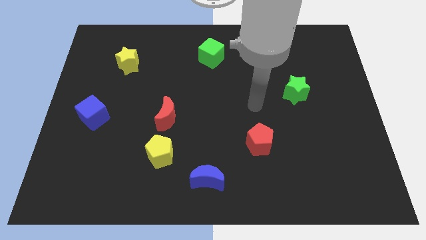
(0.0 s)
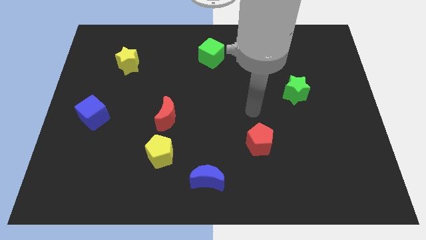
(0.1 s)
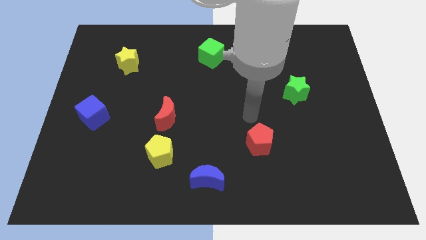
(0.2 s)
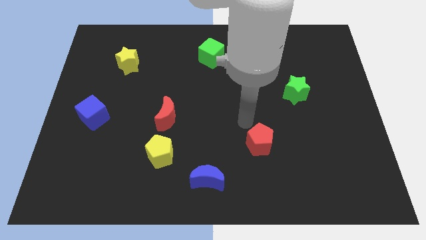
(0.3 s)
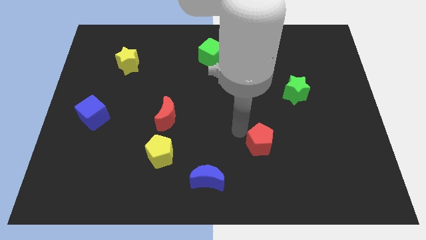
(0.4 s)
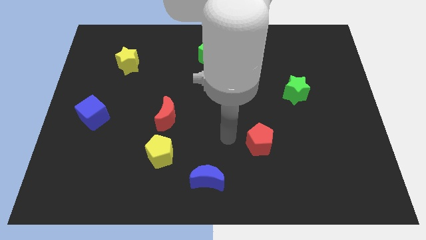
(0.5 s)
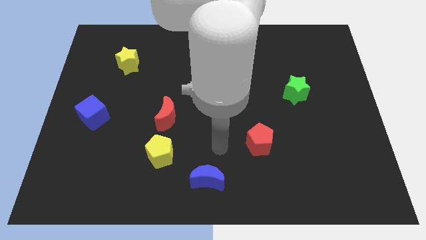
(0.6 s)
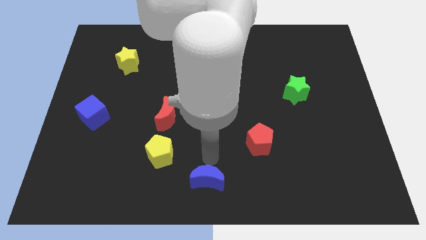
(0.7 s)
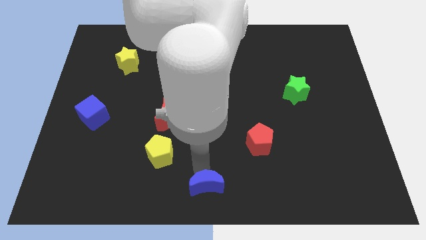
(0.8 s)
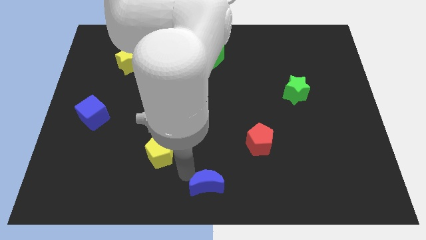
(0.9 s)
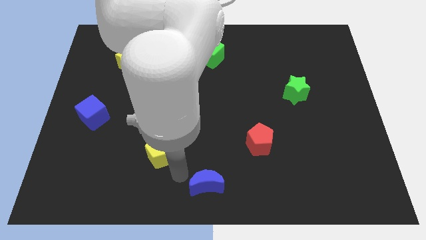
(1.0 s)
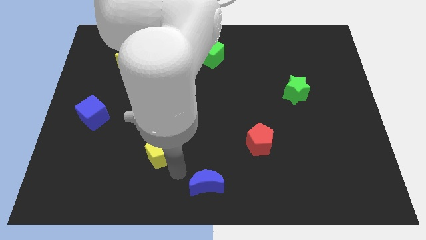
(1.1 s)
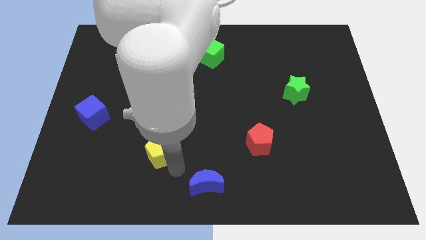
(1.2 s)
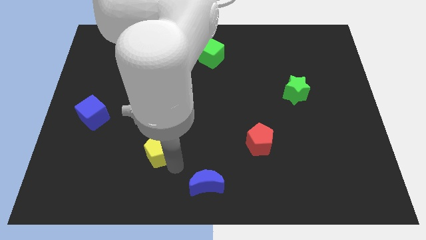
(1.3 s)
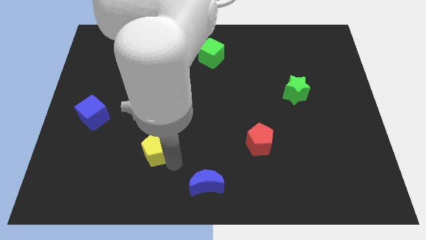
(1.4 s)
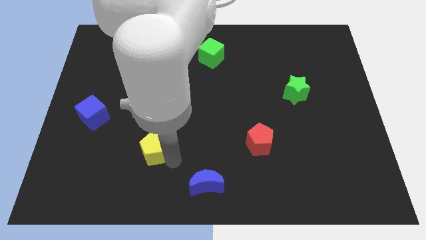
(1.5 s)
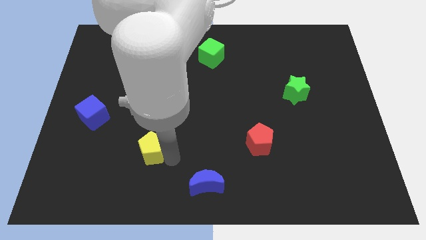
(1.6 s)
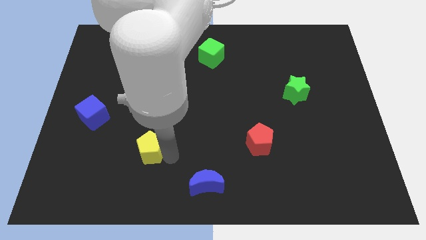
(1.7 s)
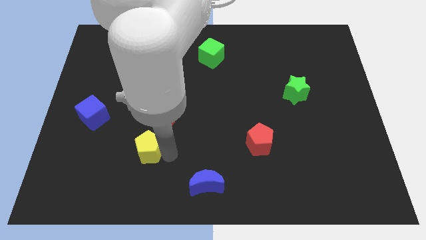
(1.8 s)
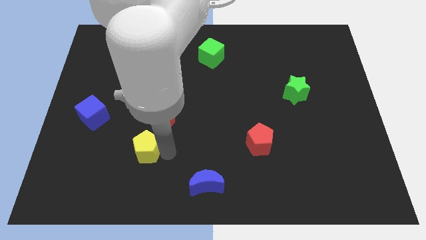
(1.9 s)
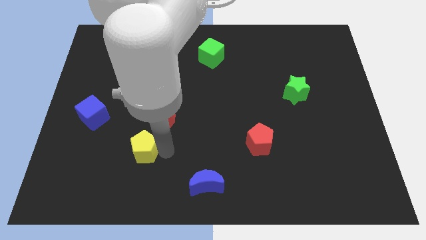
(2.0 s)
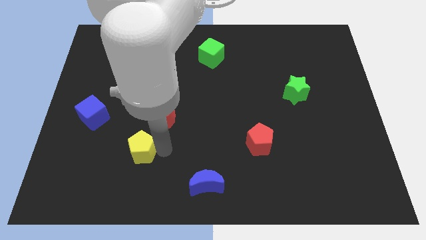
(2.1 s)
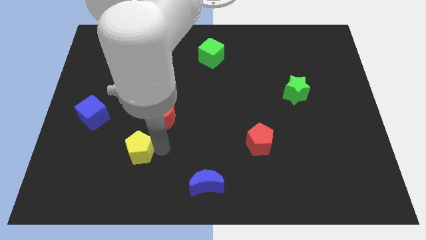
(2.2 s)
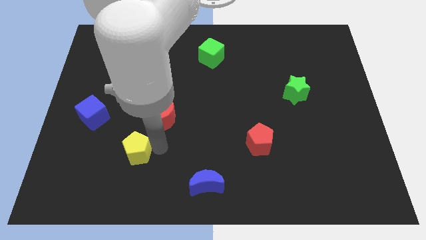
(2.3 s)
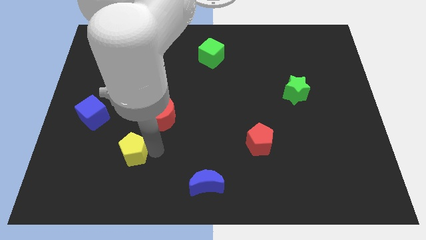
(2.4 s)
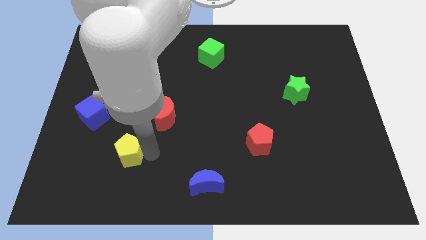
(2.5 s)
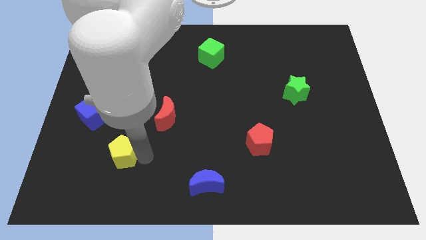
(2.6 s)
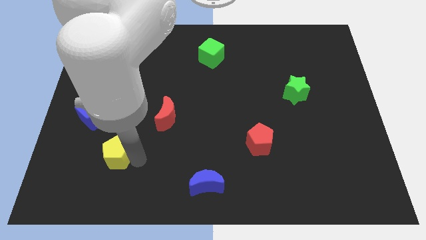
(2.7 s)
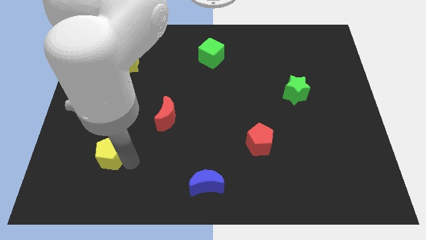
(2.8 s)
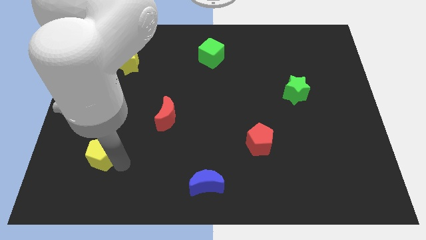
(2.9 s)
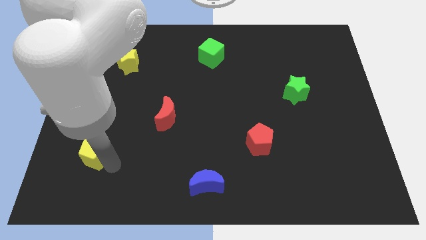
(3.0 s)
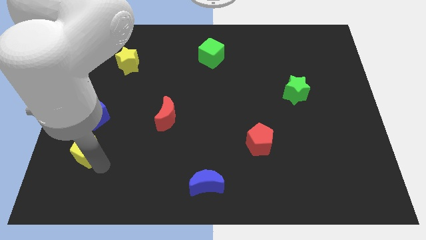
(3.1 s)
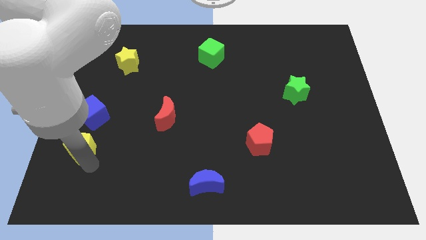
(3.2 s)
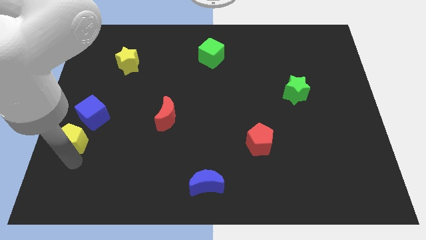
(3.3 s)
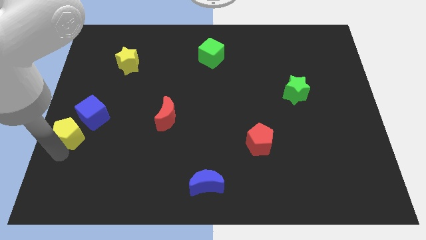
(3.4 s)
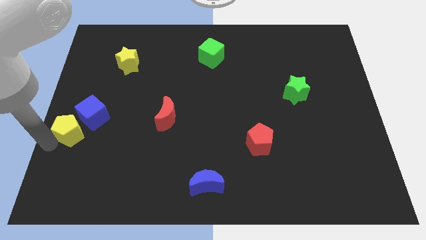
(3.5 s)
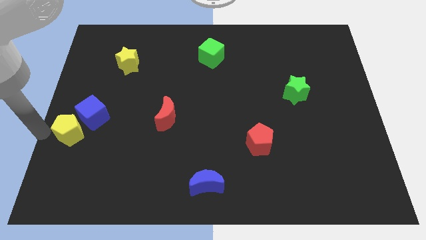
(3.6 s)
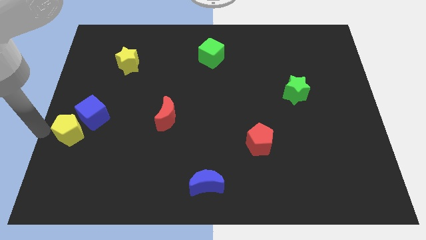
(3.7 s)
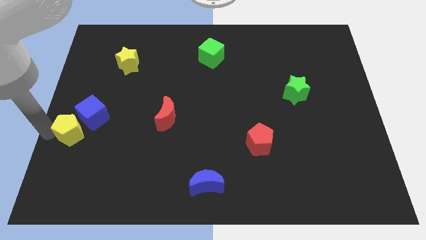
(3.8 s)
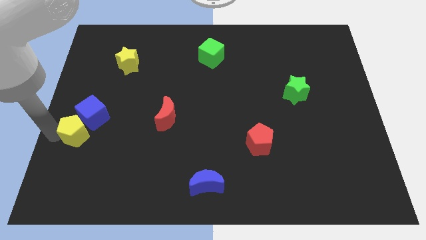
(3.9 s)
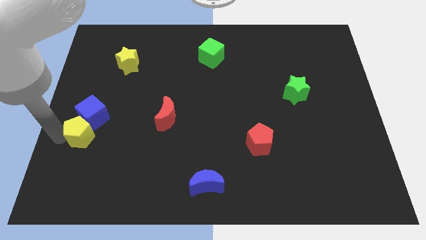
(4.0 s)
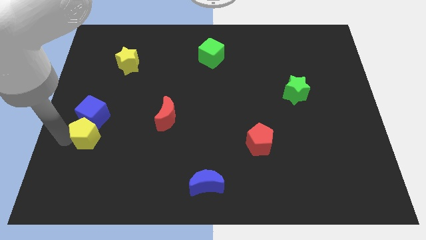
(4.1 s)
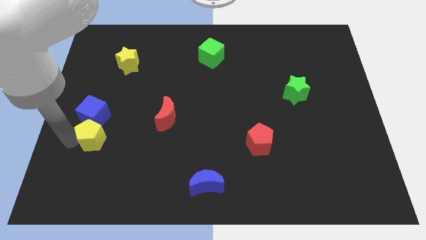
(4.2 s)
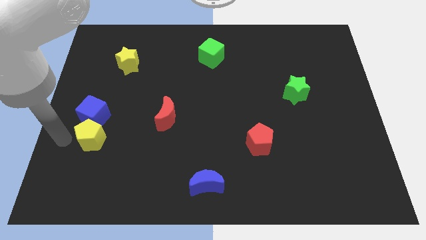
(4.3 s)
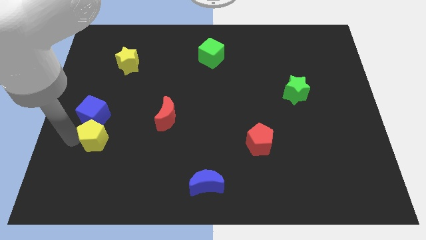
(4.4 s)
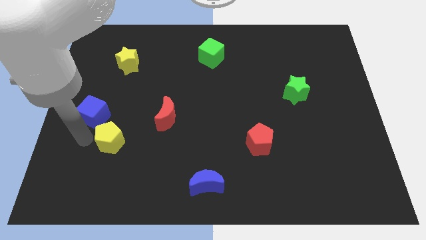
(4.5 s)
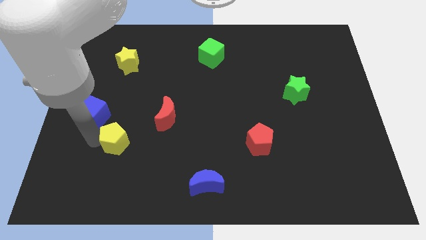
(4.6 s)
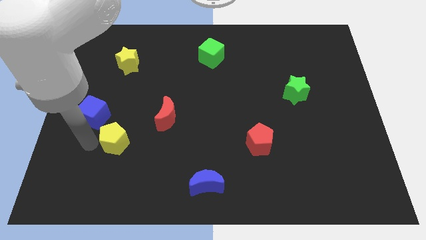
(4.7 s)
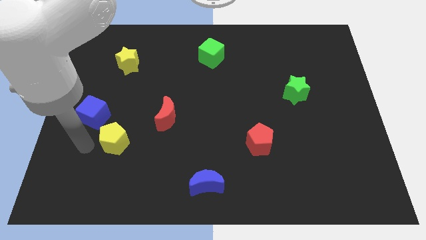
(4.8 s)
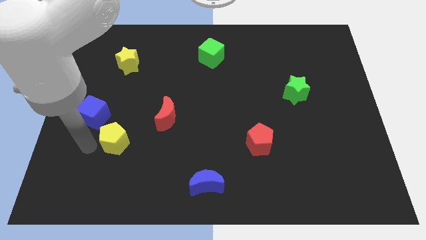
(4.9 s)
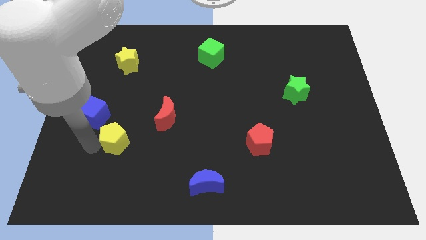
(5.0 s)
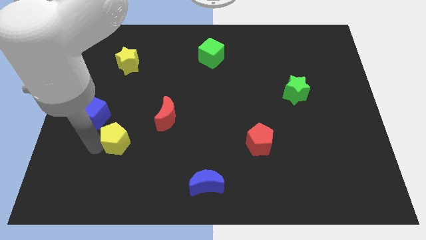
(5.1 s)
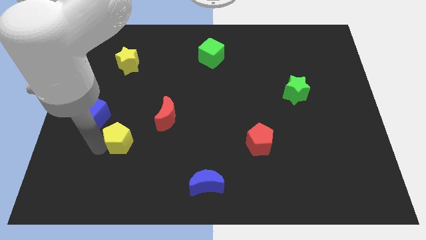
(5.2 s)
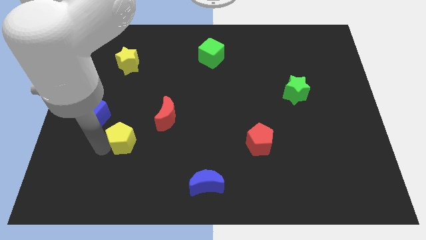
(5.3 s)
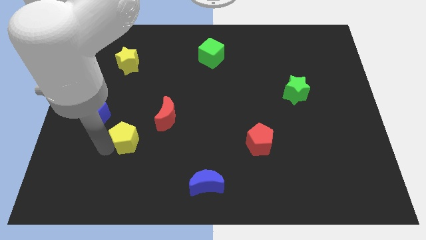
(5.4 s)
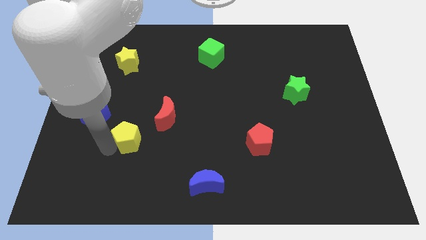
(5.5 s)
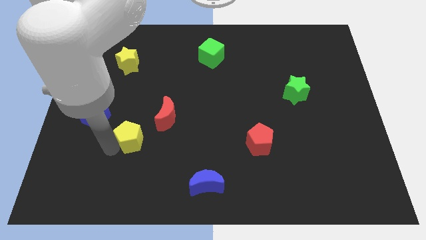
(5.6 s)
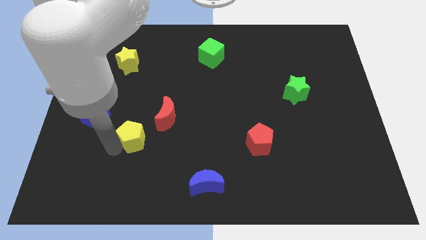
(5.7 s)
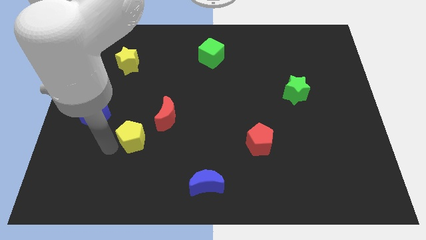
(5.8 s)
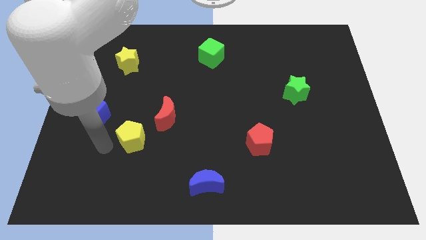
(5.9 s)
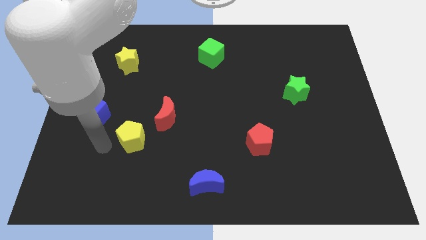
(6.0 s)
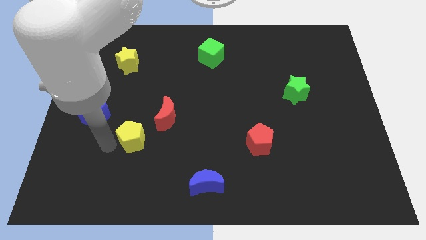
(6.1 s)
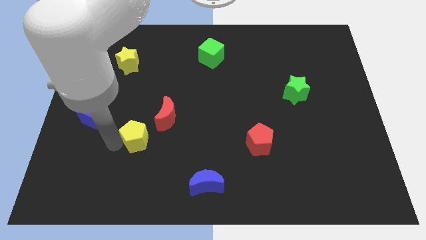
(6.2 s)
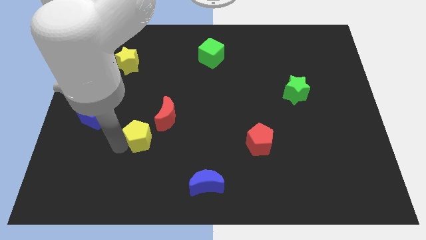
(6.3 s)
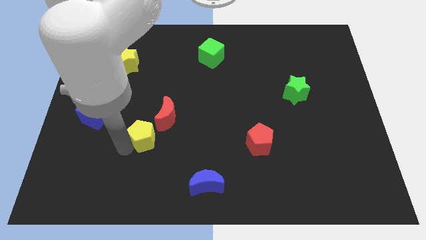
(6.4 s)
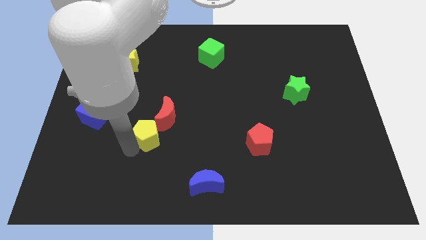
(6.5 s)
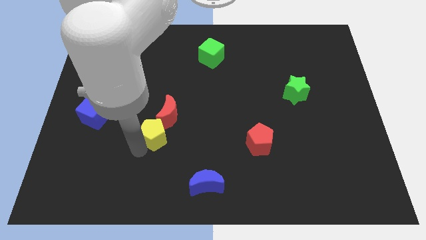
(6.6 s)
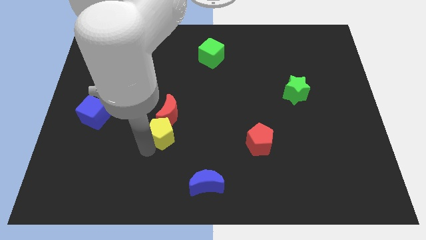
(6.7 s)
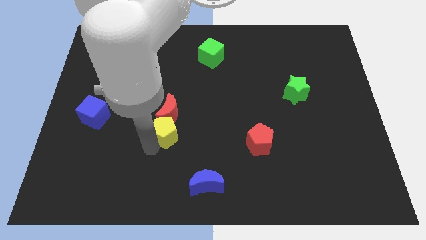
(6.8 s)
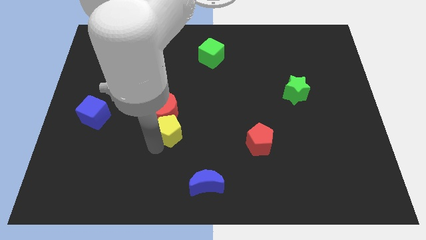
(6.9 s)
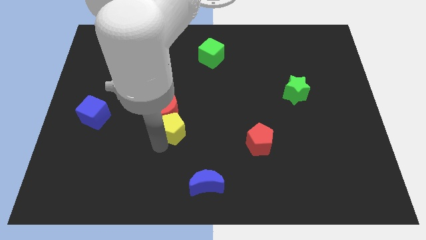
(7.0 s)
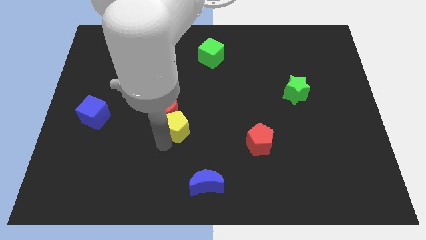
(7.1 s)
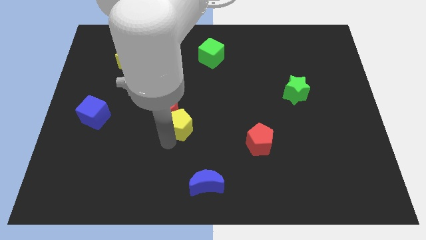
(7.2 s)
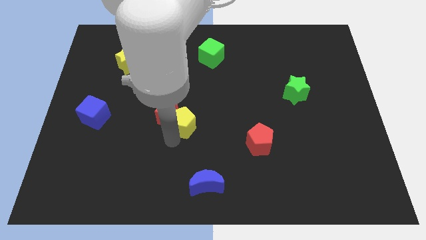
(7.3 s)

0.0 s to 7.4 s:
slightly move the yellow pentagon upwards

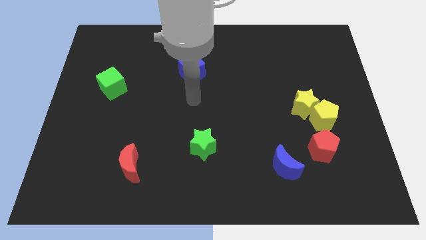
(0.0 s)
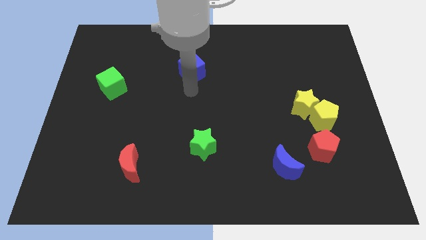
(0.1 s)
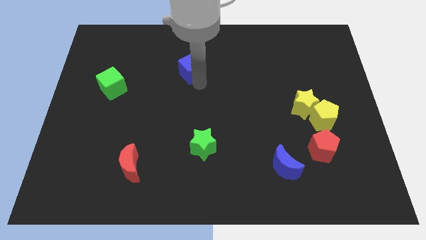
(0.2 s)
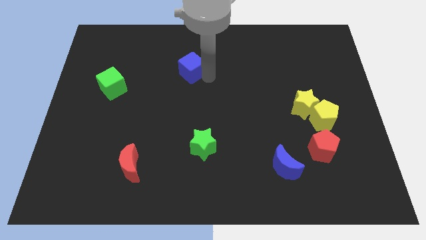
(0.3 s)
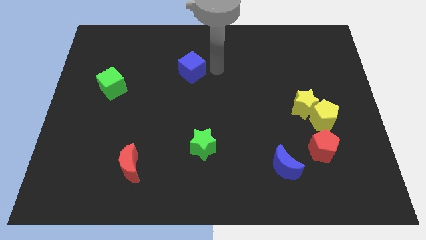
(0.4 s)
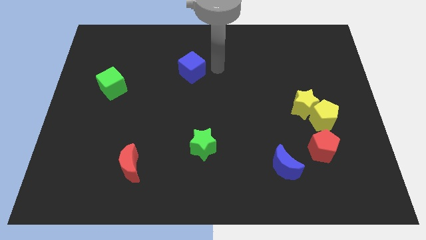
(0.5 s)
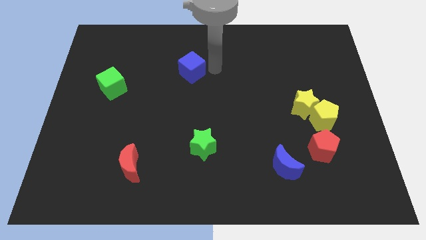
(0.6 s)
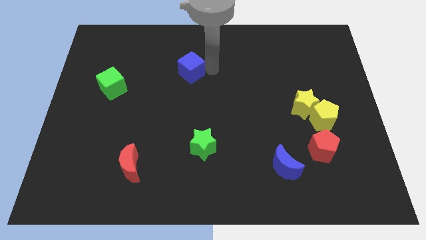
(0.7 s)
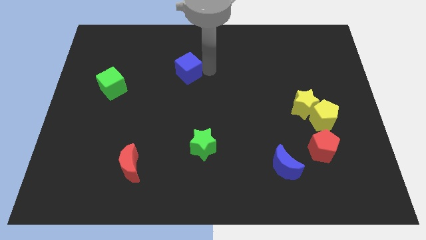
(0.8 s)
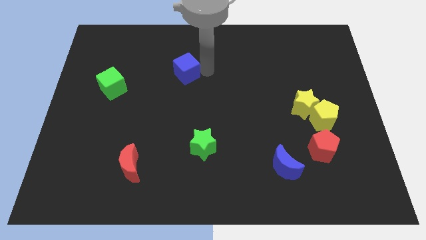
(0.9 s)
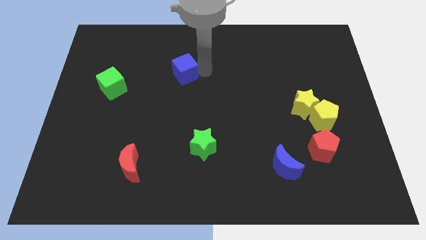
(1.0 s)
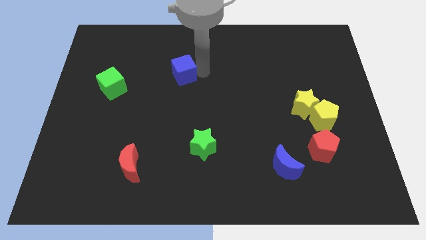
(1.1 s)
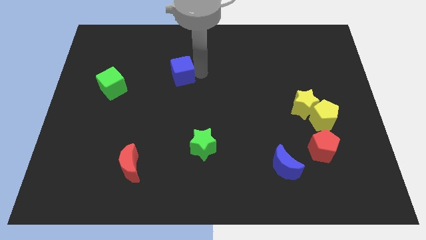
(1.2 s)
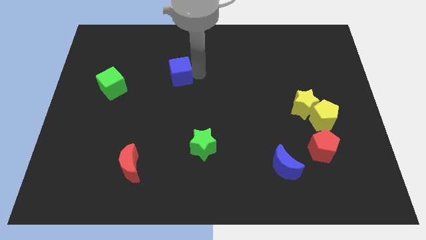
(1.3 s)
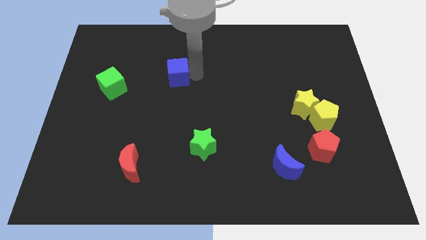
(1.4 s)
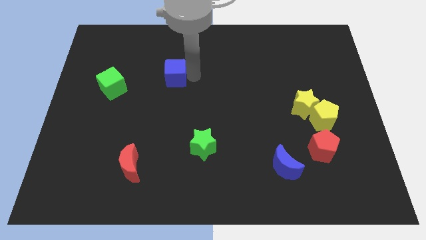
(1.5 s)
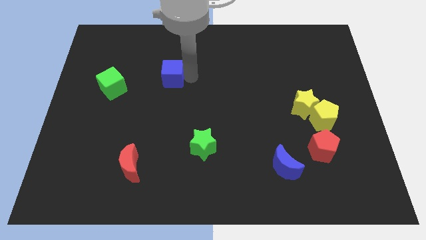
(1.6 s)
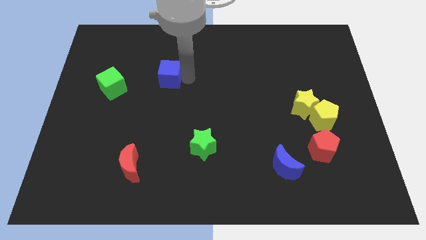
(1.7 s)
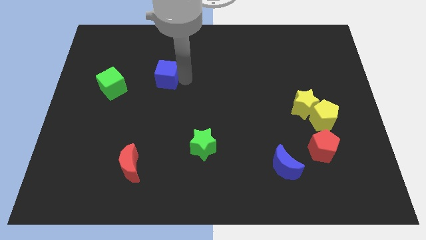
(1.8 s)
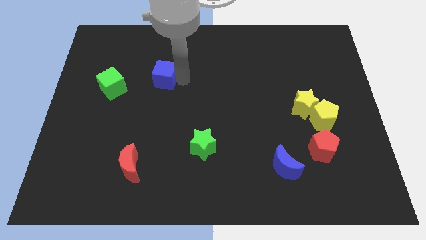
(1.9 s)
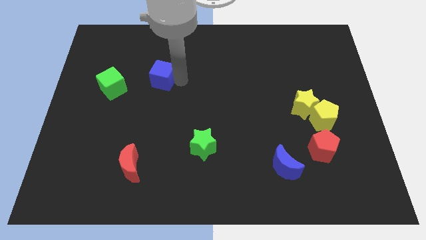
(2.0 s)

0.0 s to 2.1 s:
slide the blue cube slightly to the left
